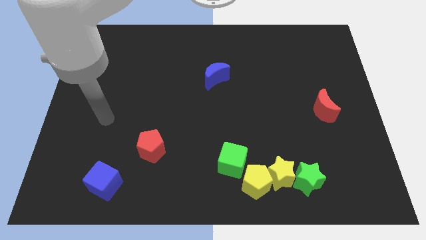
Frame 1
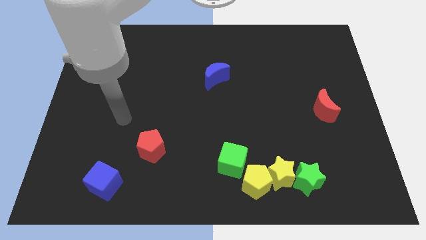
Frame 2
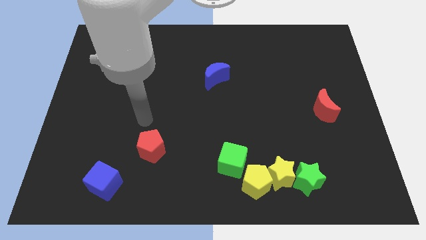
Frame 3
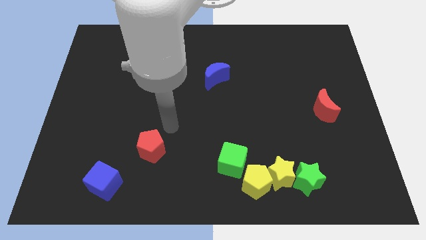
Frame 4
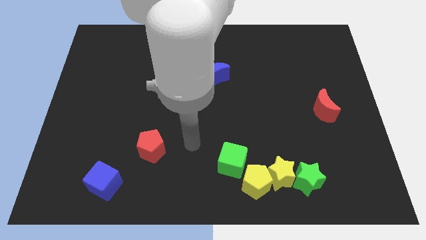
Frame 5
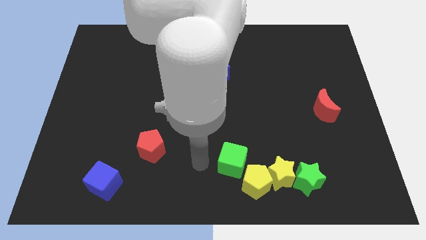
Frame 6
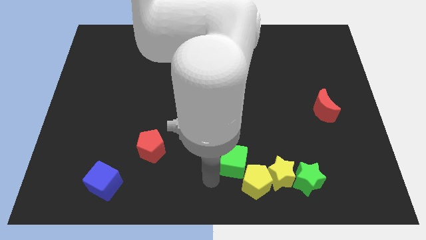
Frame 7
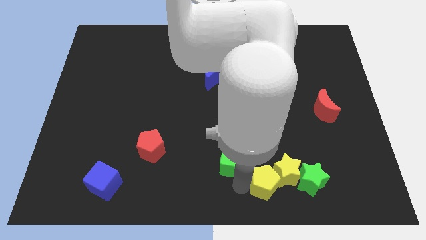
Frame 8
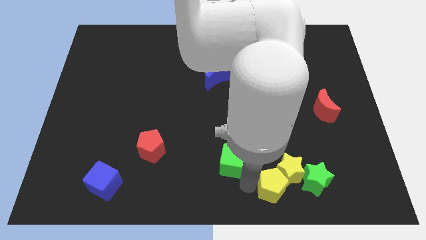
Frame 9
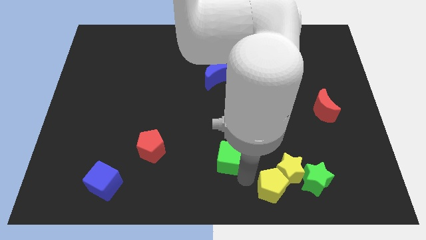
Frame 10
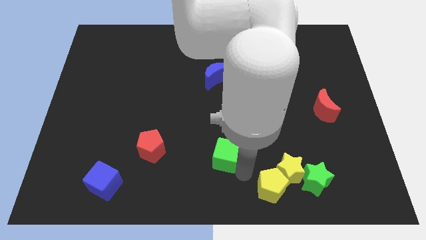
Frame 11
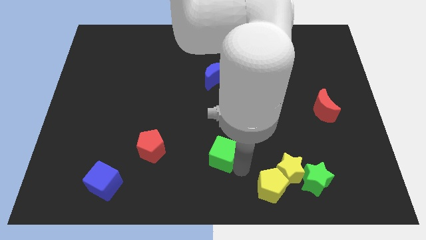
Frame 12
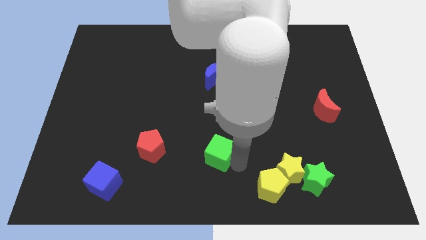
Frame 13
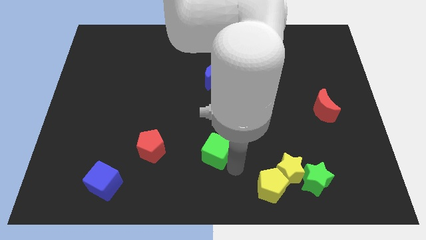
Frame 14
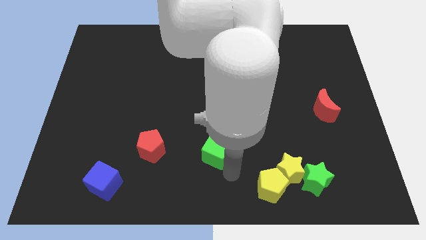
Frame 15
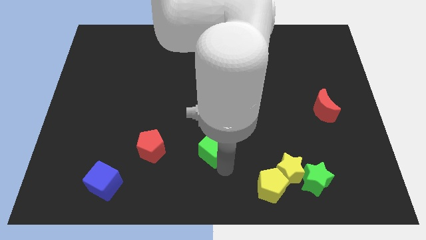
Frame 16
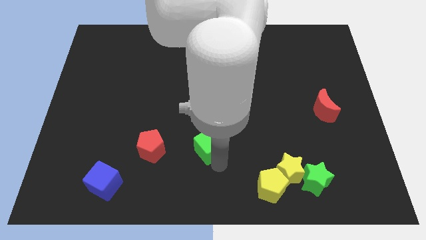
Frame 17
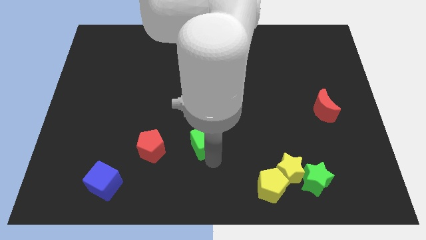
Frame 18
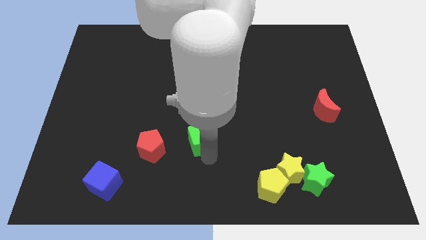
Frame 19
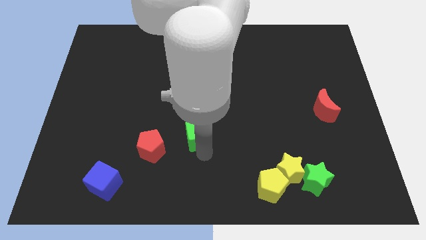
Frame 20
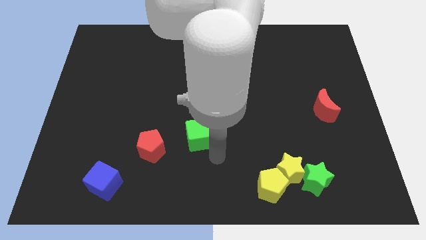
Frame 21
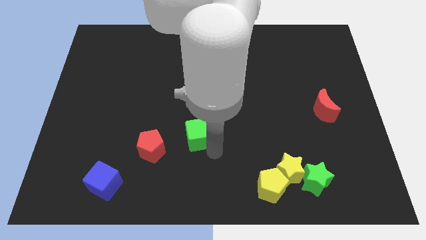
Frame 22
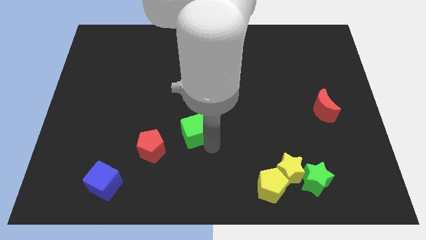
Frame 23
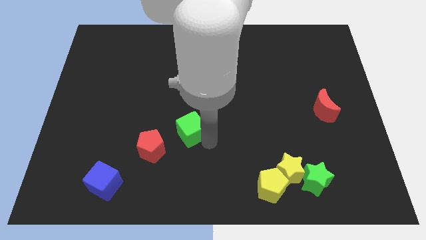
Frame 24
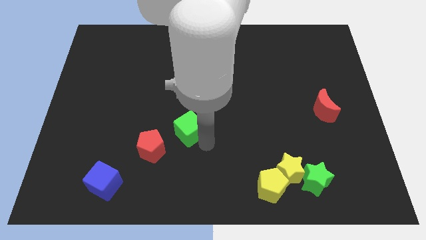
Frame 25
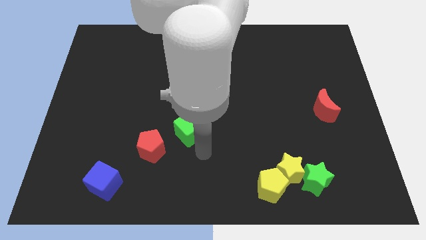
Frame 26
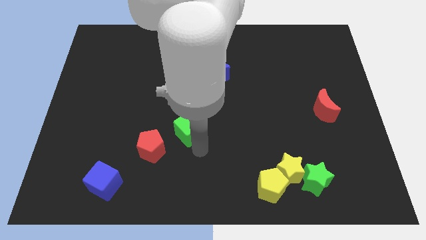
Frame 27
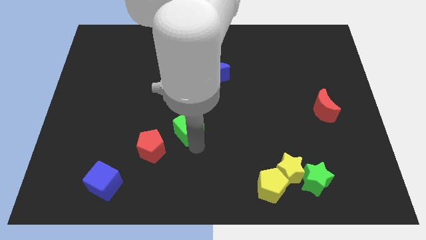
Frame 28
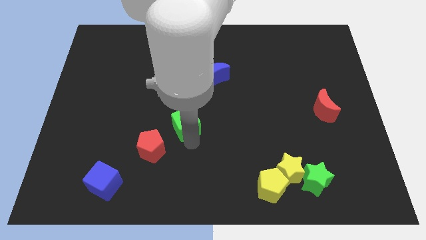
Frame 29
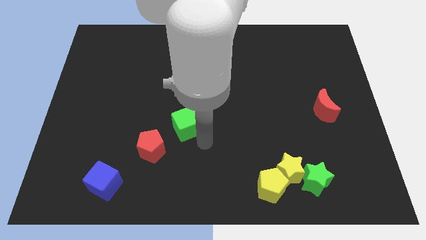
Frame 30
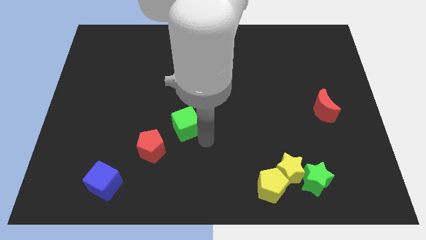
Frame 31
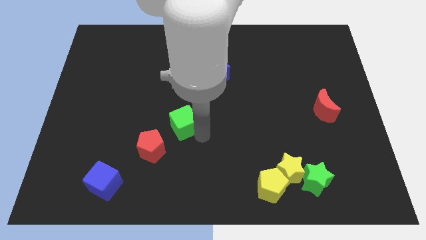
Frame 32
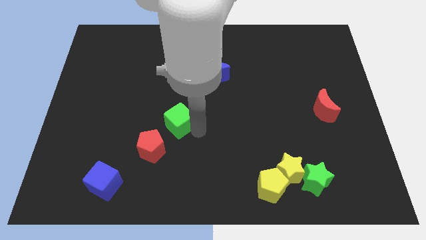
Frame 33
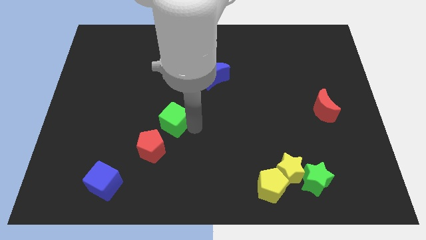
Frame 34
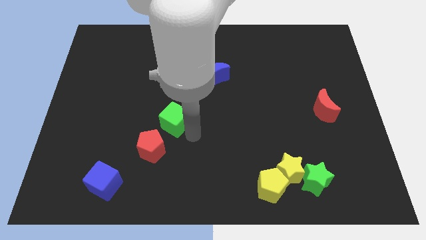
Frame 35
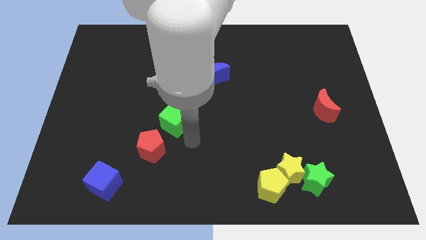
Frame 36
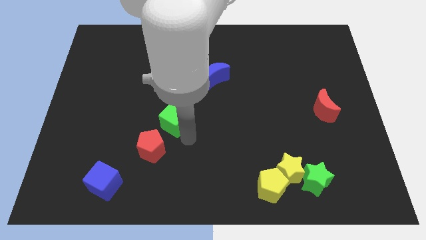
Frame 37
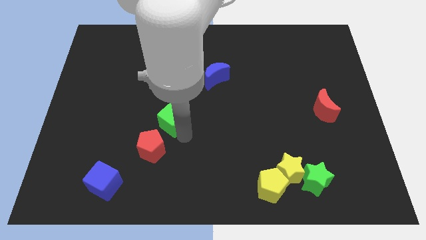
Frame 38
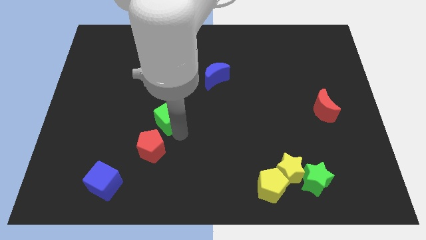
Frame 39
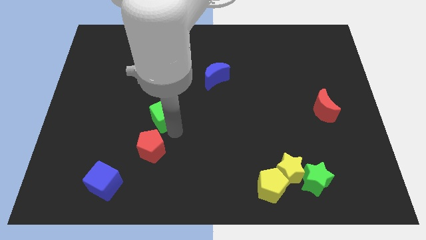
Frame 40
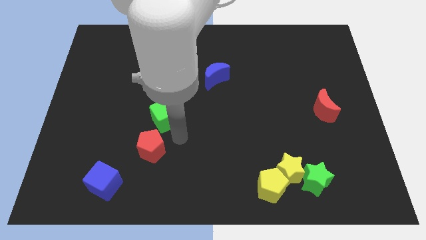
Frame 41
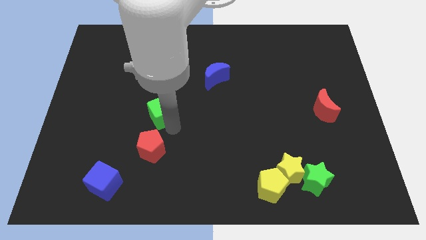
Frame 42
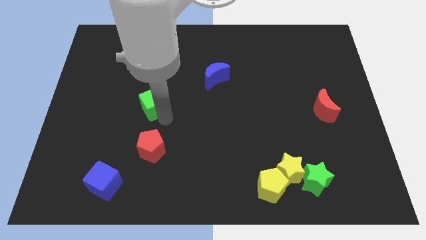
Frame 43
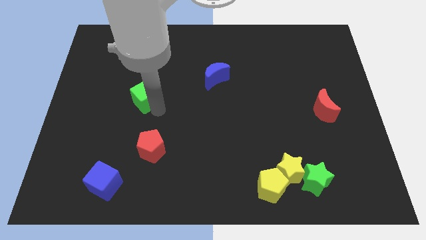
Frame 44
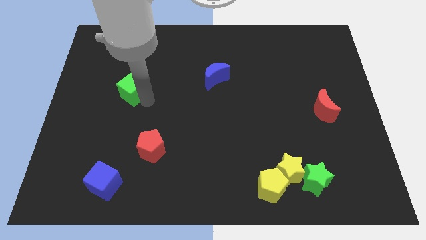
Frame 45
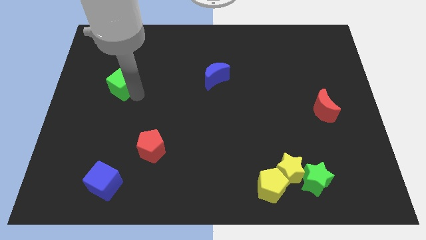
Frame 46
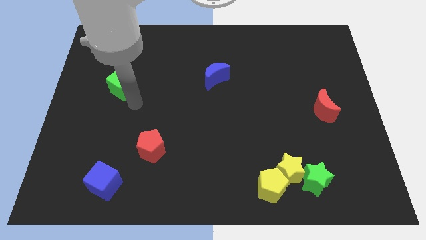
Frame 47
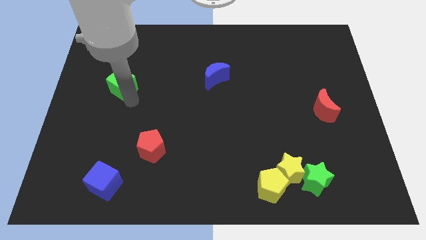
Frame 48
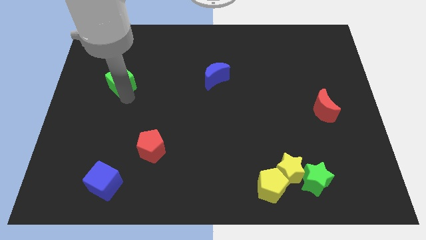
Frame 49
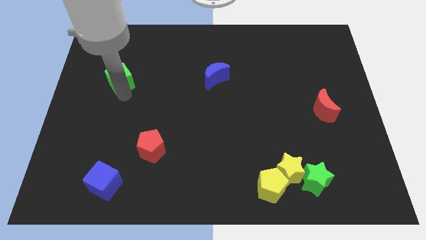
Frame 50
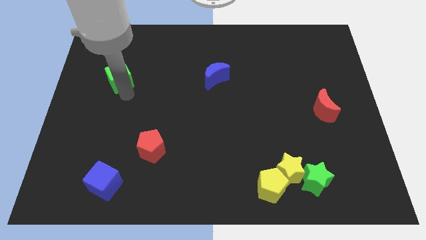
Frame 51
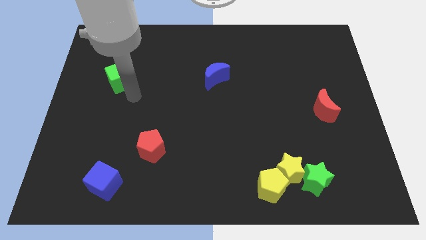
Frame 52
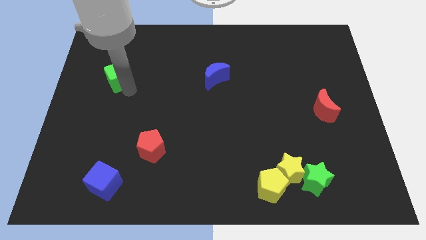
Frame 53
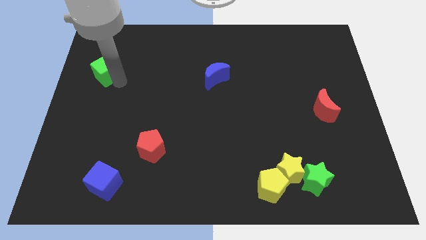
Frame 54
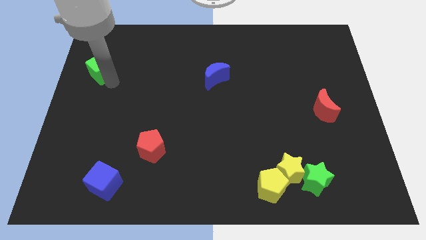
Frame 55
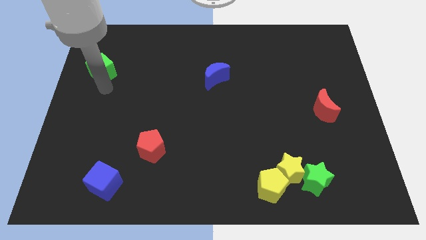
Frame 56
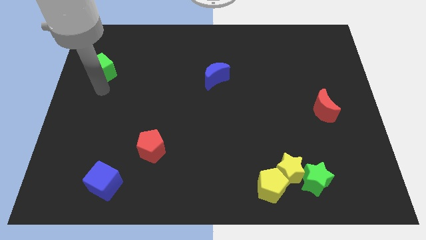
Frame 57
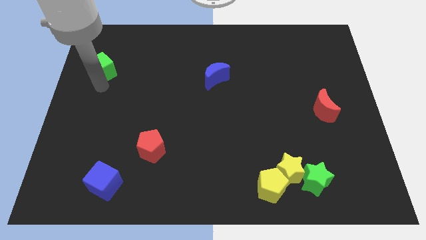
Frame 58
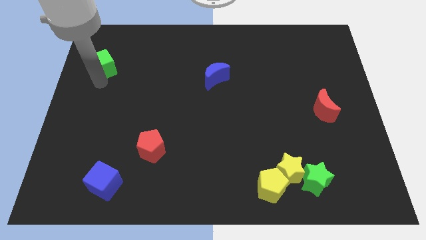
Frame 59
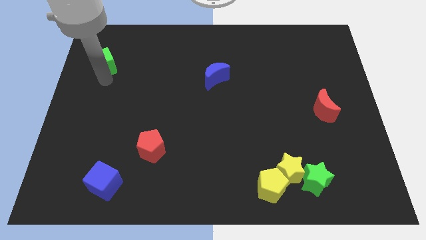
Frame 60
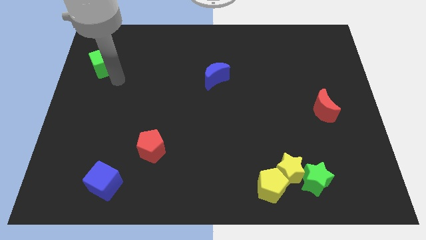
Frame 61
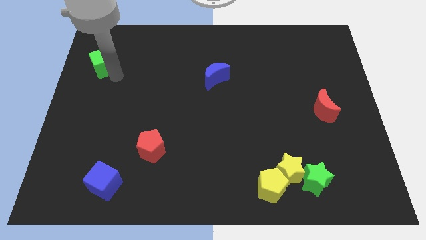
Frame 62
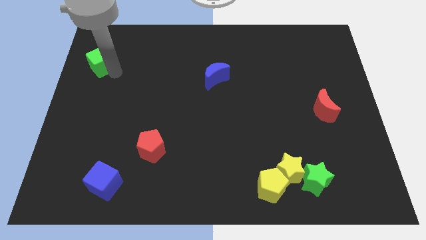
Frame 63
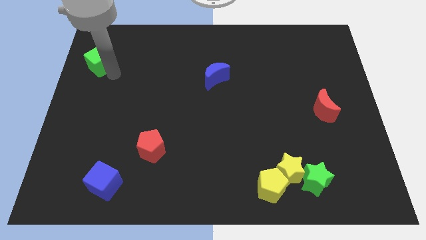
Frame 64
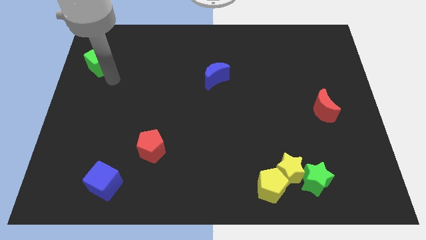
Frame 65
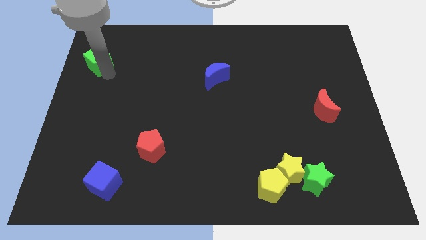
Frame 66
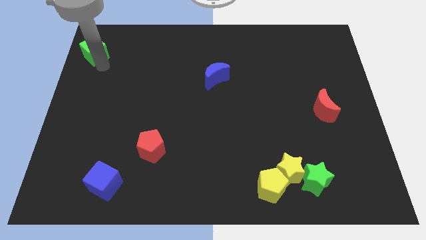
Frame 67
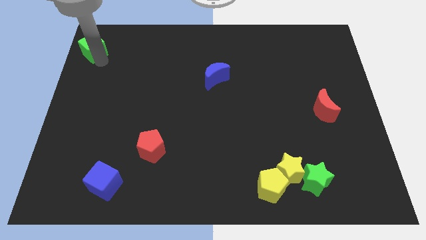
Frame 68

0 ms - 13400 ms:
slide the green cube to the top left of the board
